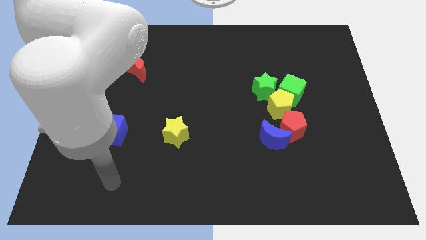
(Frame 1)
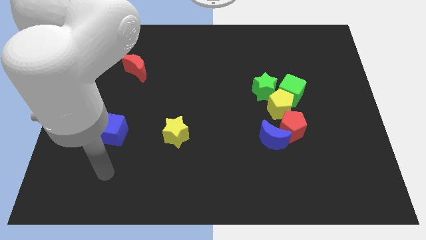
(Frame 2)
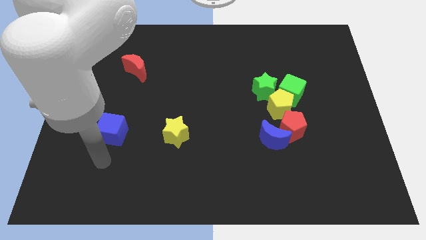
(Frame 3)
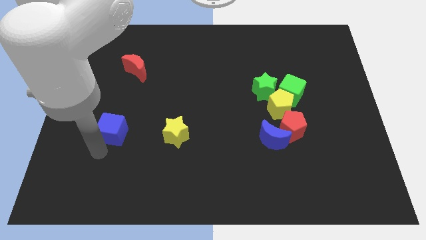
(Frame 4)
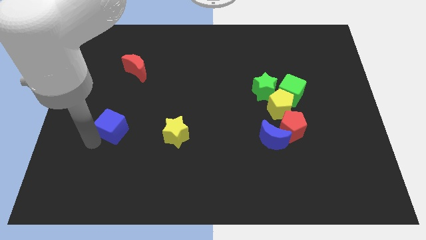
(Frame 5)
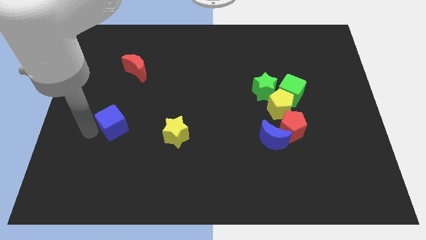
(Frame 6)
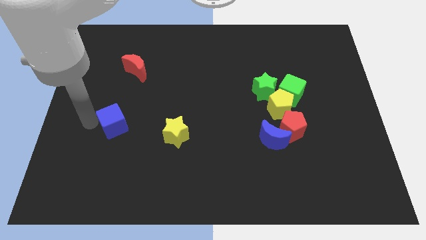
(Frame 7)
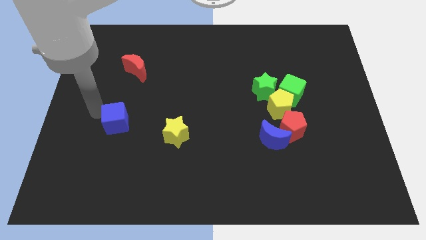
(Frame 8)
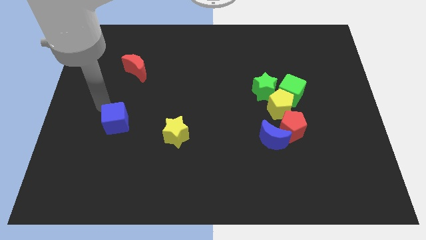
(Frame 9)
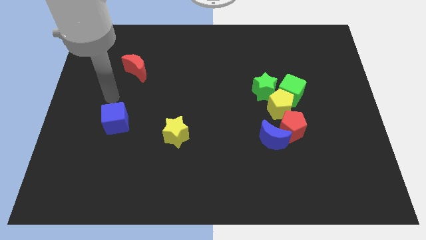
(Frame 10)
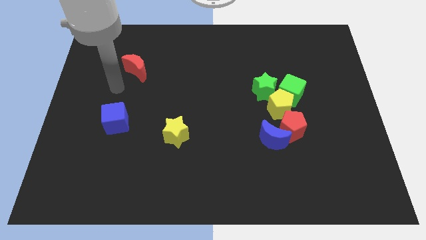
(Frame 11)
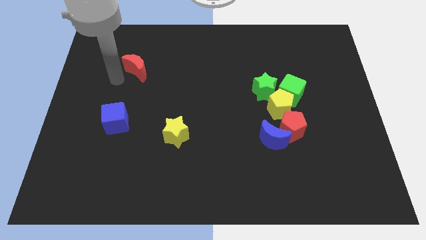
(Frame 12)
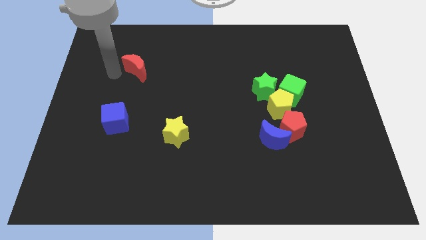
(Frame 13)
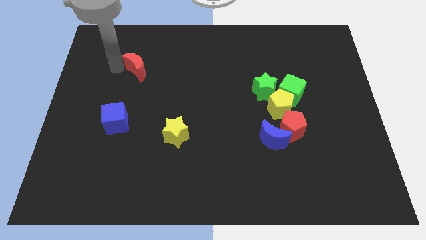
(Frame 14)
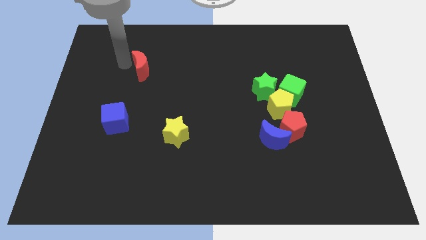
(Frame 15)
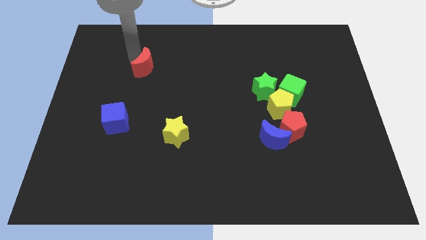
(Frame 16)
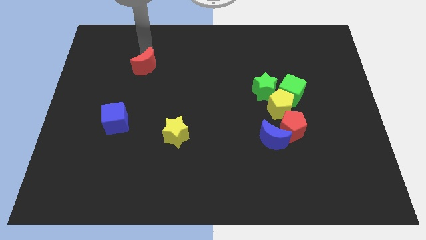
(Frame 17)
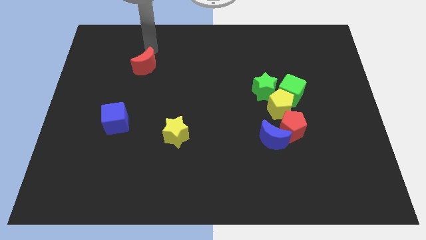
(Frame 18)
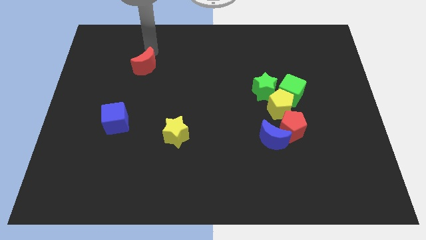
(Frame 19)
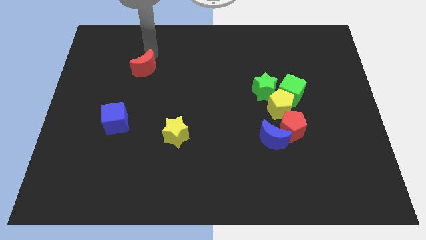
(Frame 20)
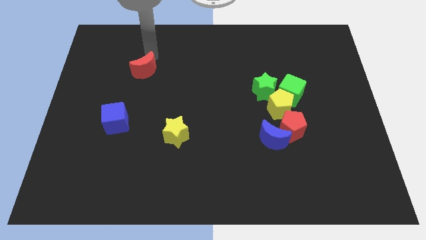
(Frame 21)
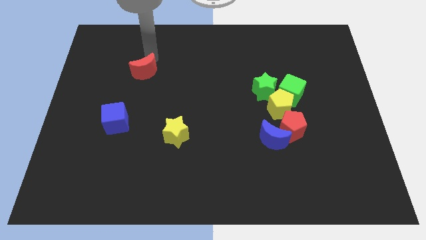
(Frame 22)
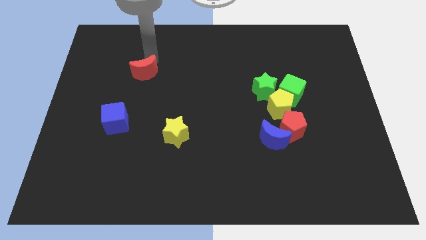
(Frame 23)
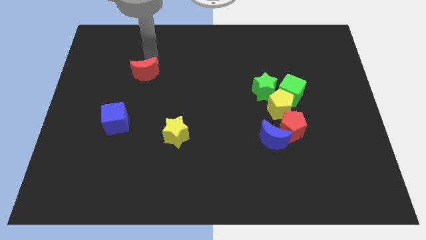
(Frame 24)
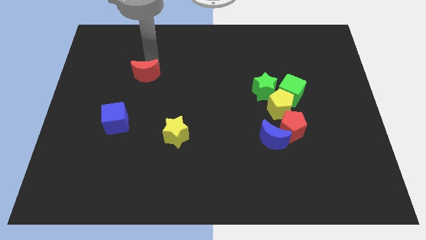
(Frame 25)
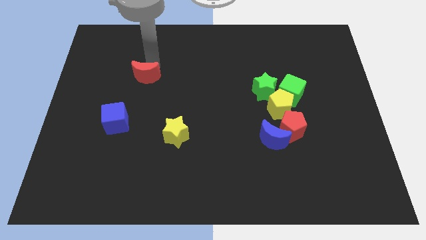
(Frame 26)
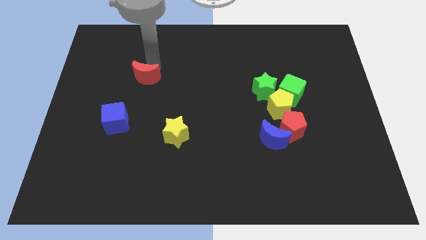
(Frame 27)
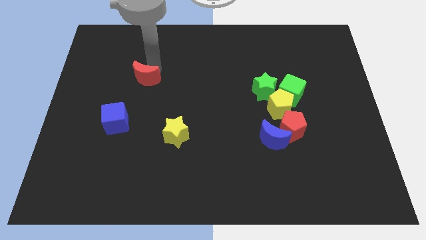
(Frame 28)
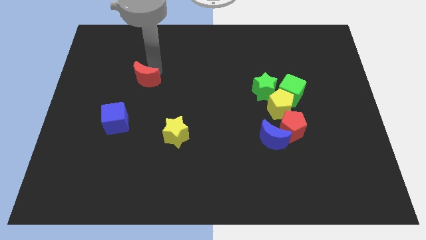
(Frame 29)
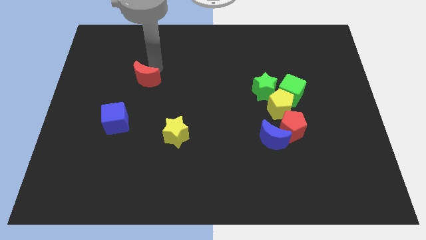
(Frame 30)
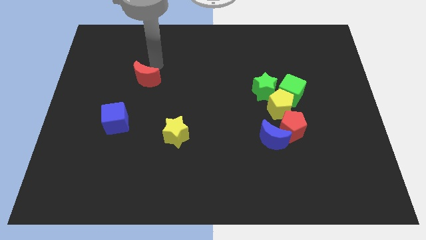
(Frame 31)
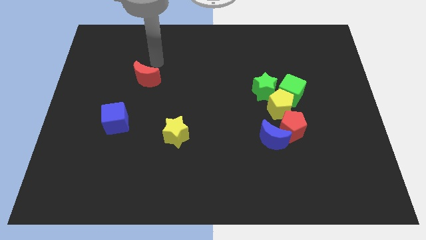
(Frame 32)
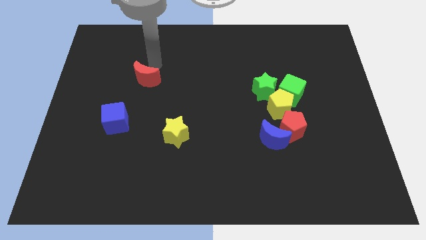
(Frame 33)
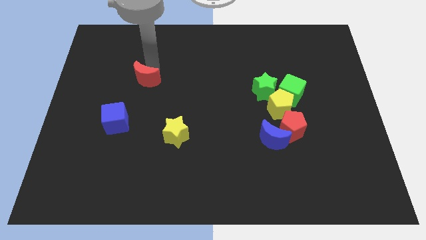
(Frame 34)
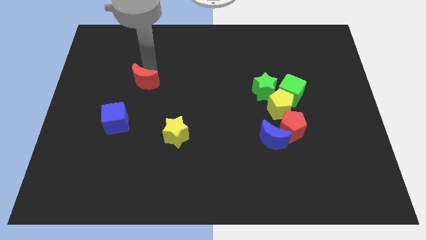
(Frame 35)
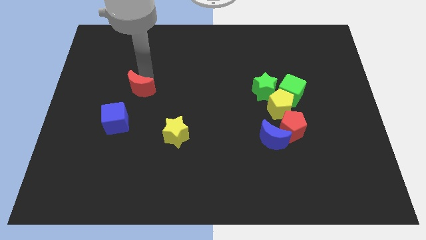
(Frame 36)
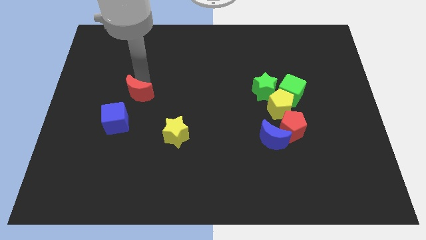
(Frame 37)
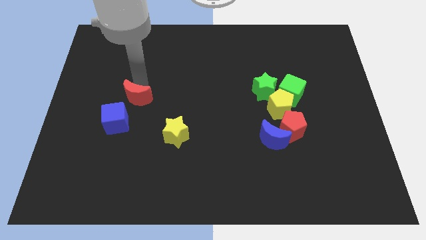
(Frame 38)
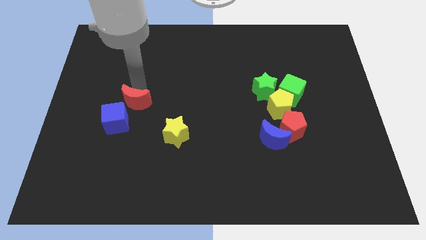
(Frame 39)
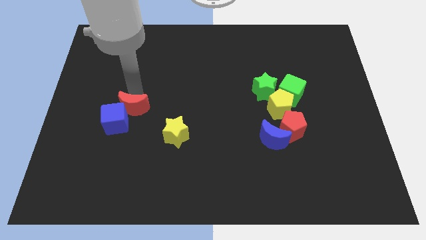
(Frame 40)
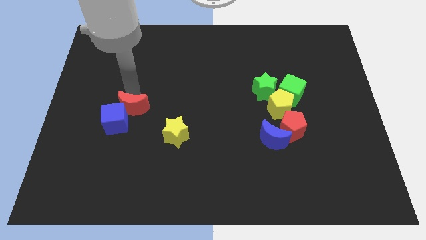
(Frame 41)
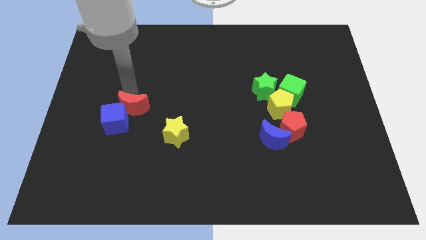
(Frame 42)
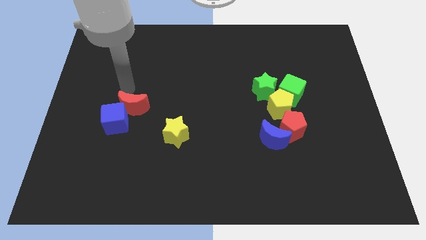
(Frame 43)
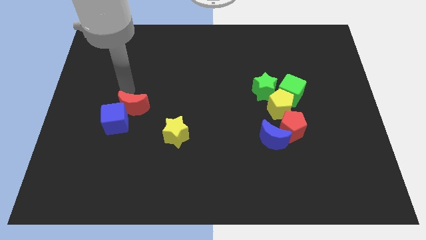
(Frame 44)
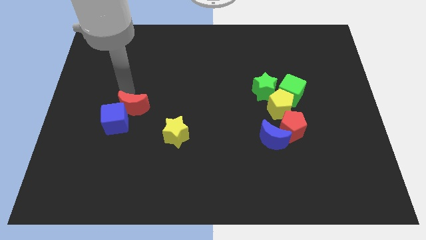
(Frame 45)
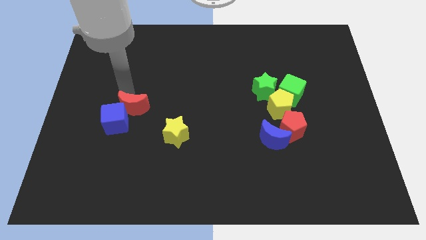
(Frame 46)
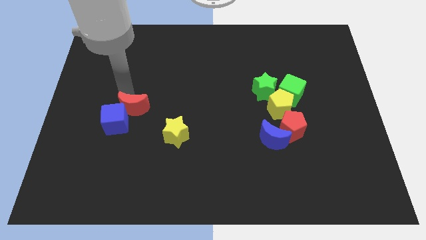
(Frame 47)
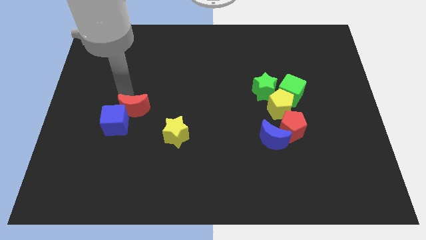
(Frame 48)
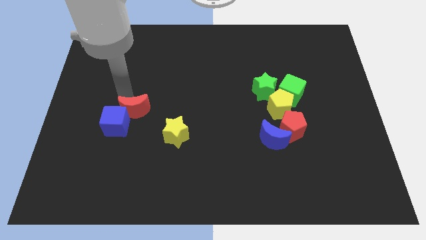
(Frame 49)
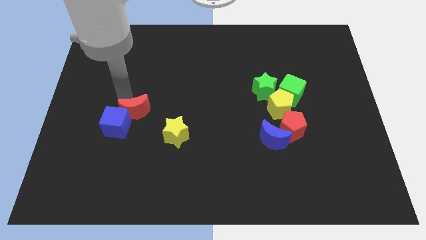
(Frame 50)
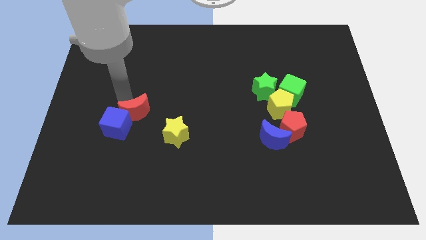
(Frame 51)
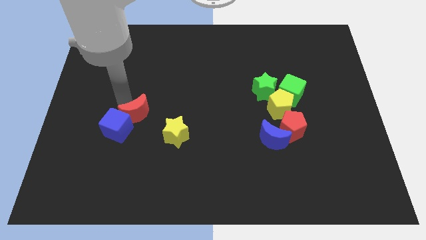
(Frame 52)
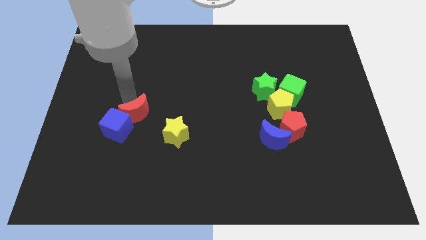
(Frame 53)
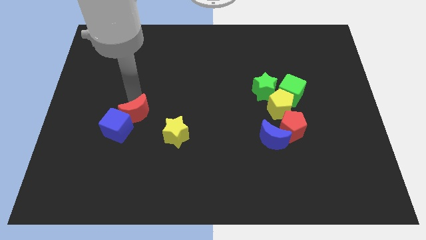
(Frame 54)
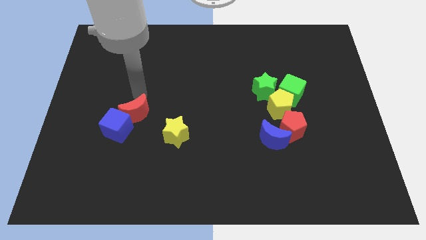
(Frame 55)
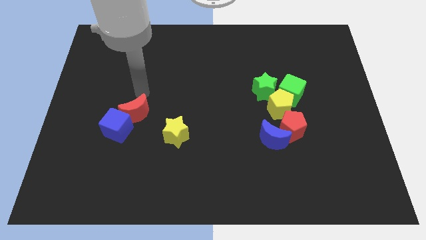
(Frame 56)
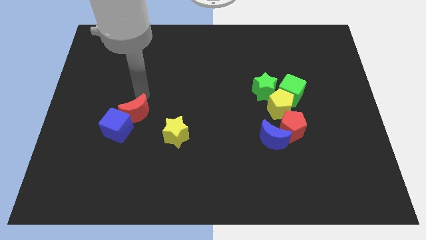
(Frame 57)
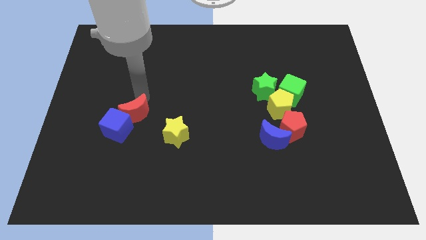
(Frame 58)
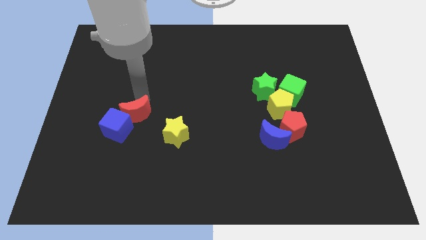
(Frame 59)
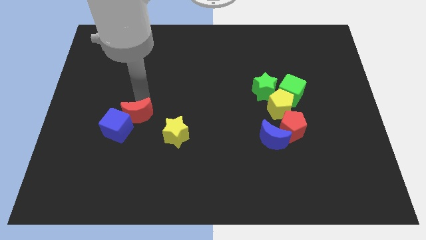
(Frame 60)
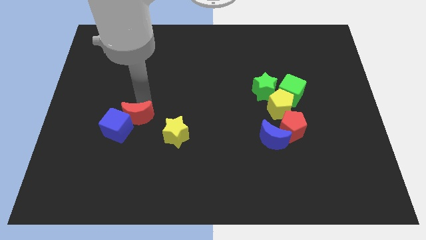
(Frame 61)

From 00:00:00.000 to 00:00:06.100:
slide the red moon to the left side of the yellow star
